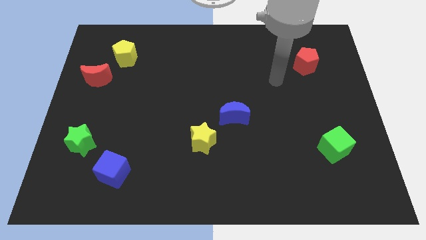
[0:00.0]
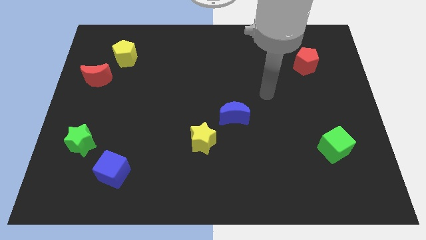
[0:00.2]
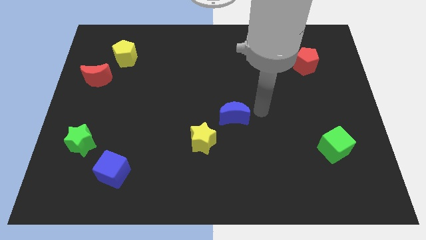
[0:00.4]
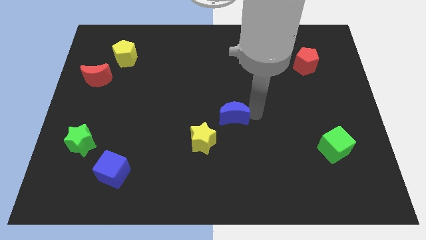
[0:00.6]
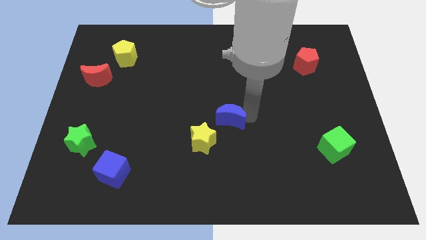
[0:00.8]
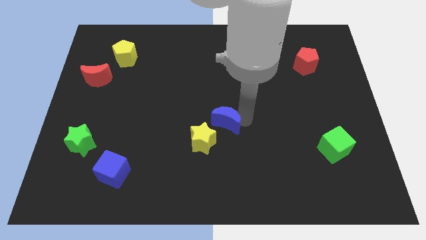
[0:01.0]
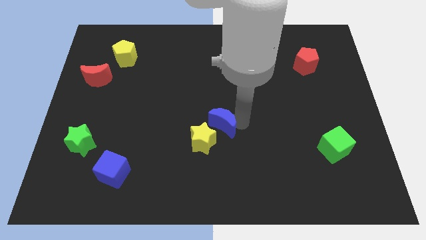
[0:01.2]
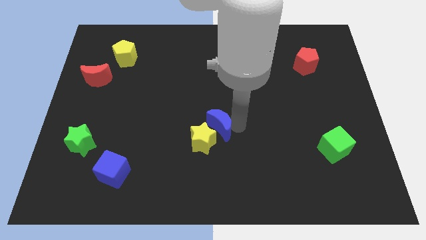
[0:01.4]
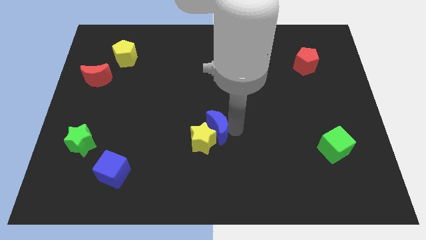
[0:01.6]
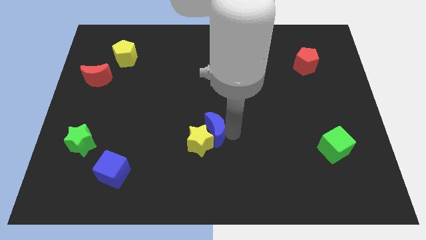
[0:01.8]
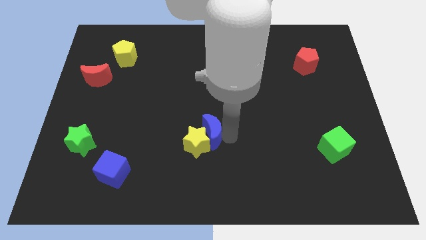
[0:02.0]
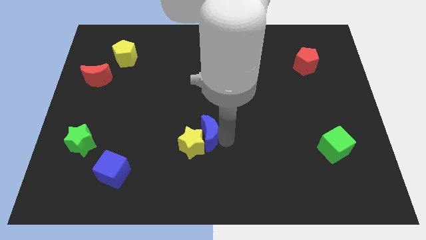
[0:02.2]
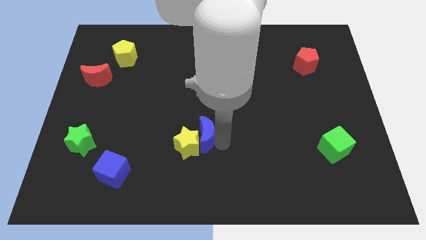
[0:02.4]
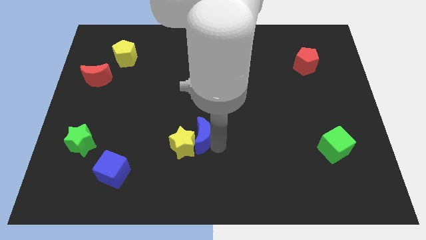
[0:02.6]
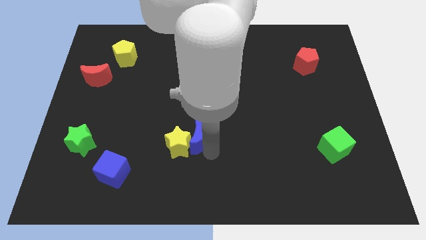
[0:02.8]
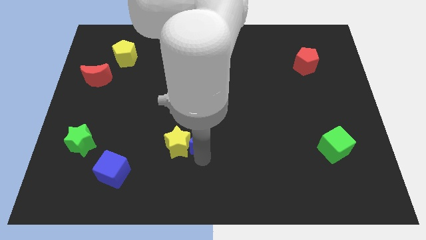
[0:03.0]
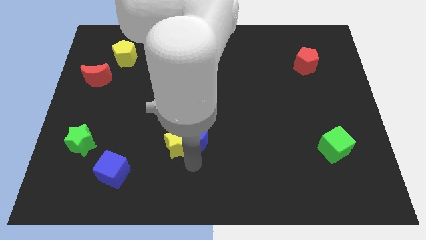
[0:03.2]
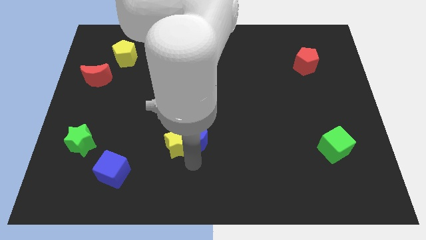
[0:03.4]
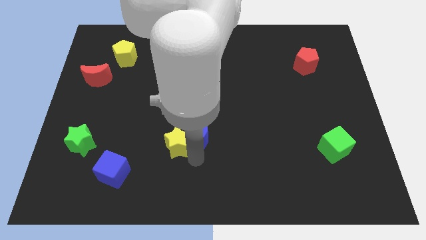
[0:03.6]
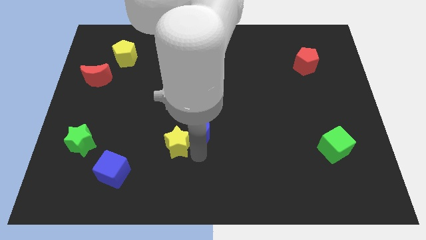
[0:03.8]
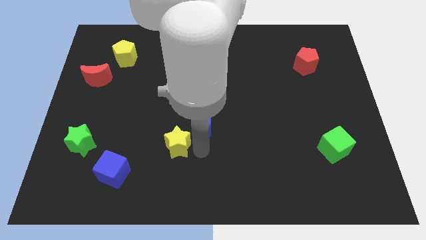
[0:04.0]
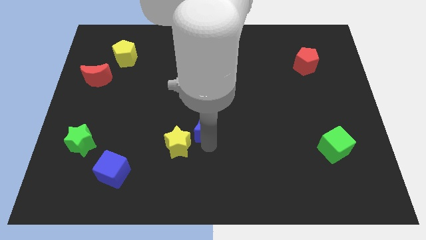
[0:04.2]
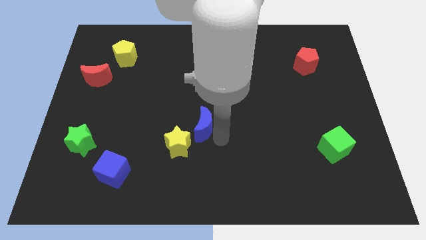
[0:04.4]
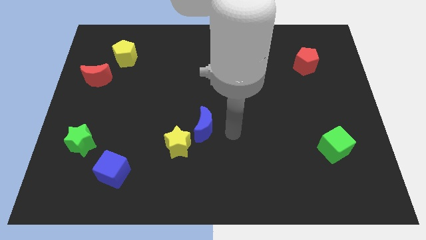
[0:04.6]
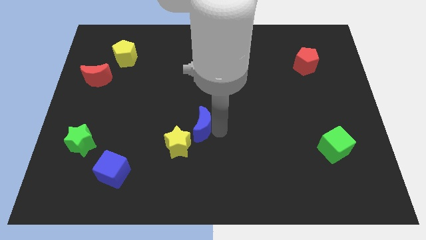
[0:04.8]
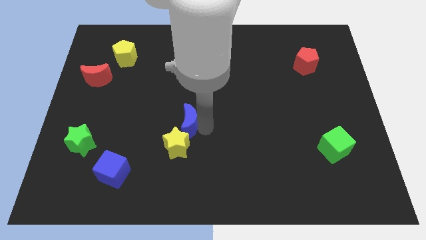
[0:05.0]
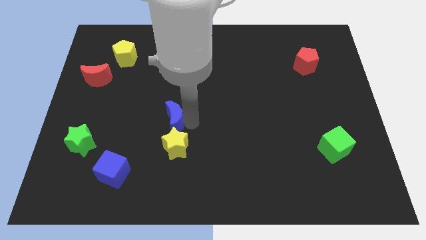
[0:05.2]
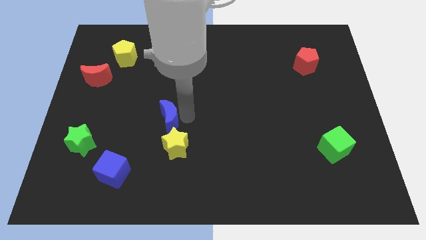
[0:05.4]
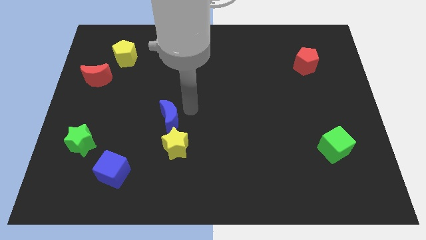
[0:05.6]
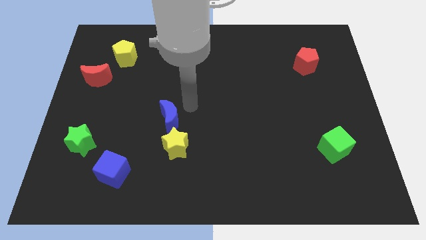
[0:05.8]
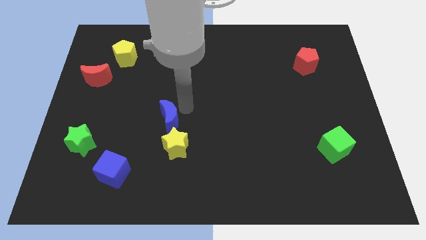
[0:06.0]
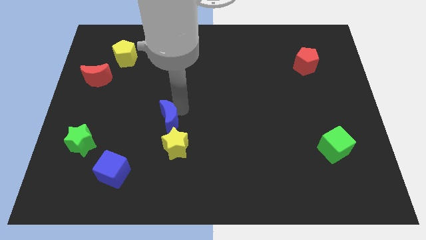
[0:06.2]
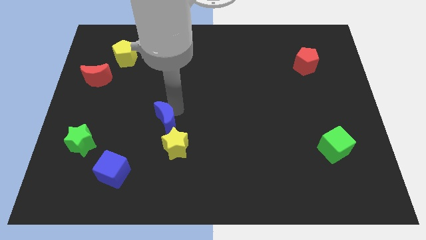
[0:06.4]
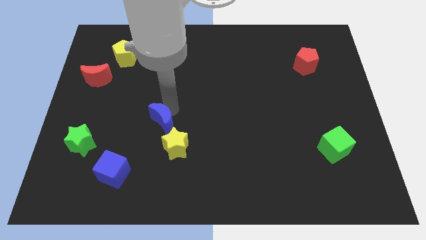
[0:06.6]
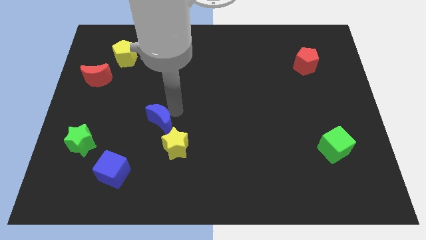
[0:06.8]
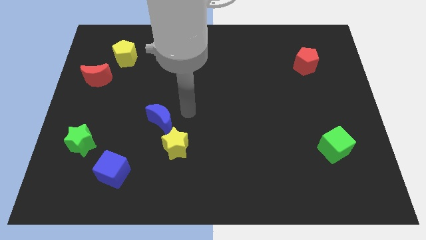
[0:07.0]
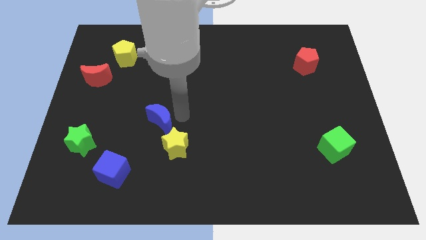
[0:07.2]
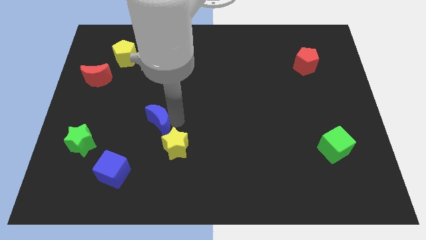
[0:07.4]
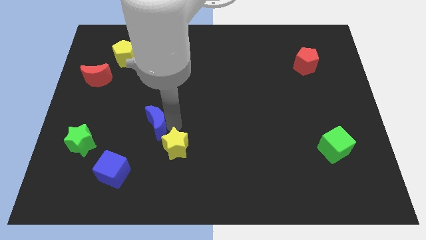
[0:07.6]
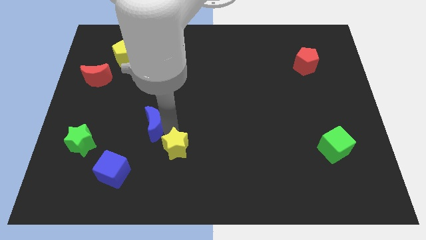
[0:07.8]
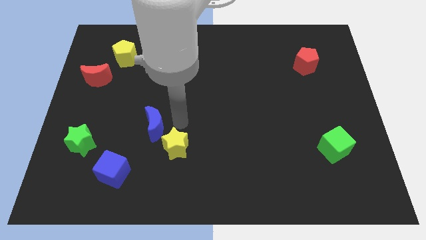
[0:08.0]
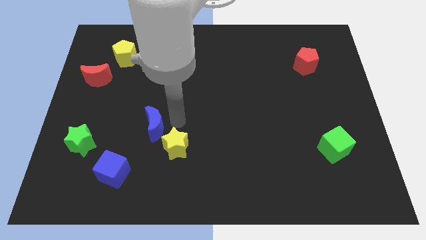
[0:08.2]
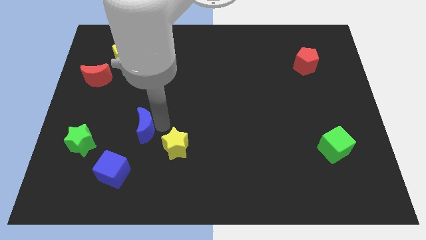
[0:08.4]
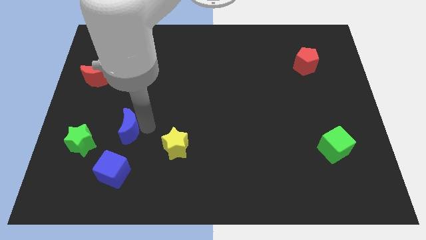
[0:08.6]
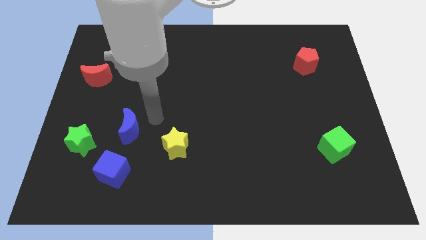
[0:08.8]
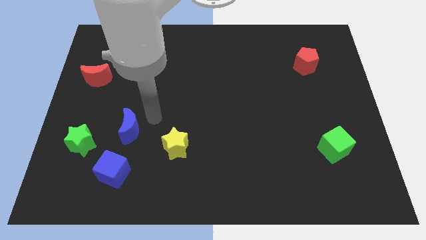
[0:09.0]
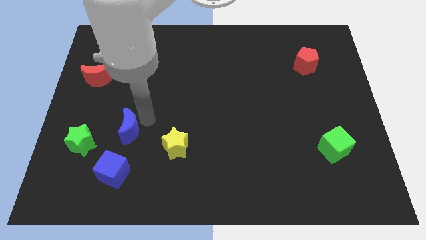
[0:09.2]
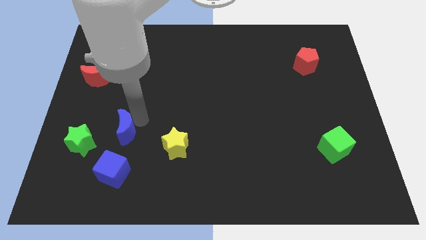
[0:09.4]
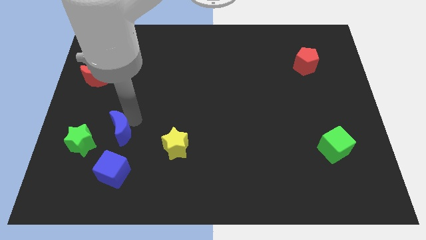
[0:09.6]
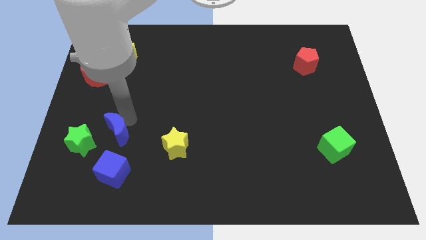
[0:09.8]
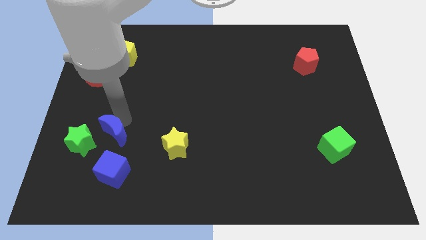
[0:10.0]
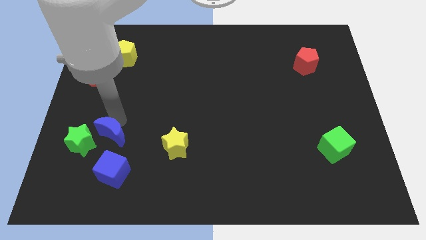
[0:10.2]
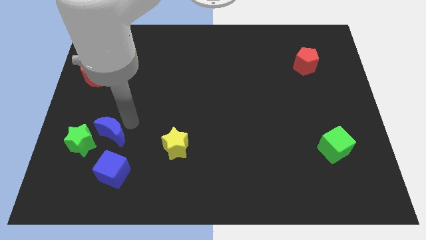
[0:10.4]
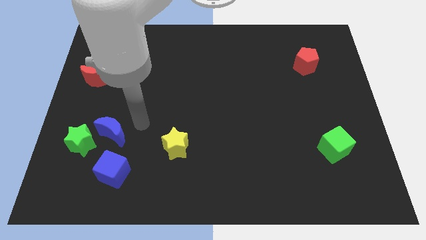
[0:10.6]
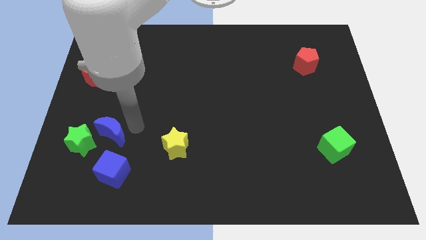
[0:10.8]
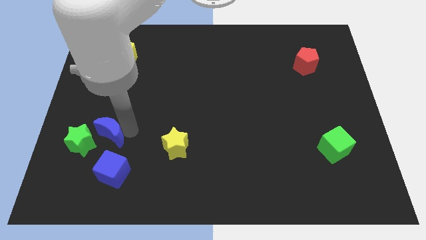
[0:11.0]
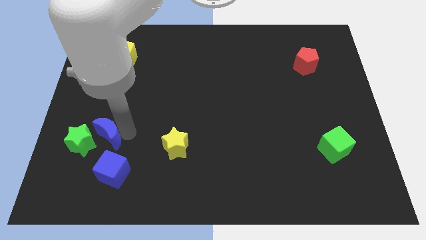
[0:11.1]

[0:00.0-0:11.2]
put the blue moon close to the green star

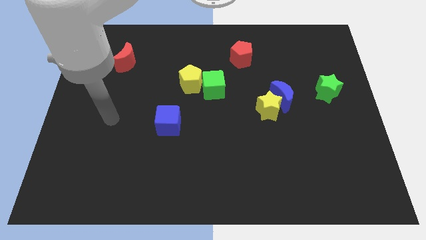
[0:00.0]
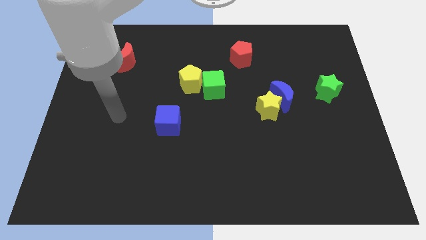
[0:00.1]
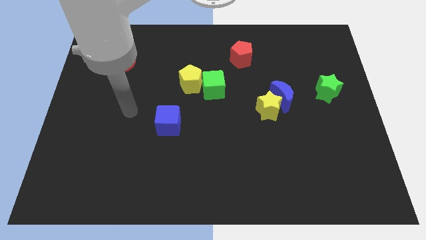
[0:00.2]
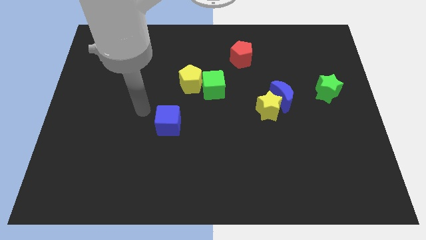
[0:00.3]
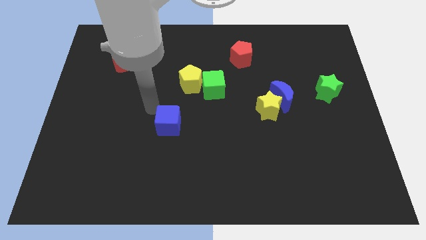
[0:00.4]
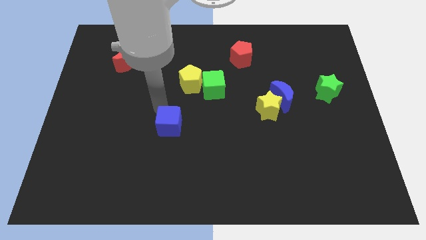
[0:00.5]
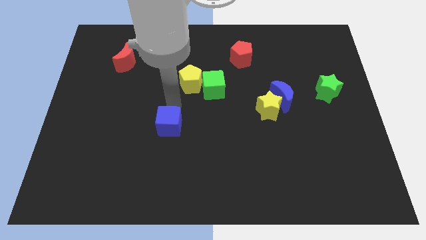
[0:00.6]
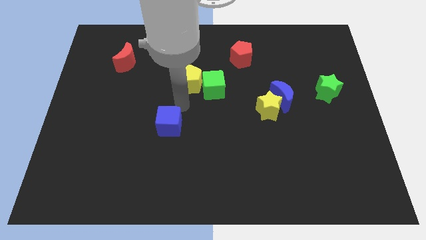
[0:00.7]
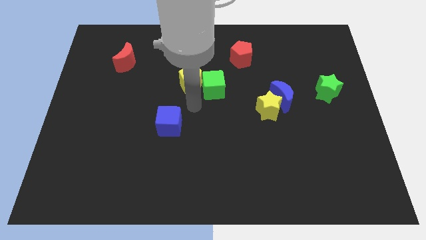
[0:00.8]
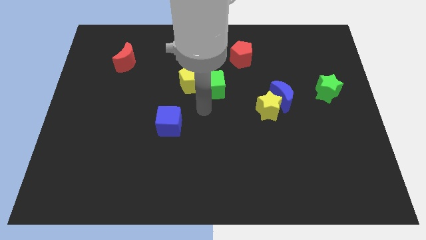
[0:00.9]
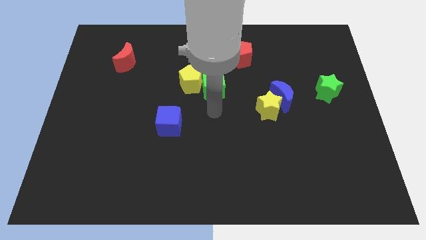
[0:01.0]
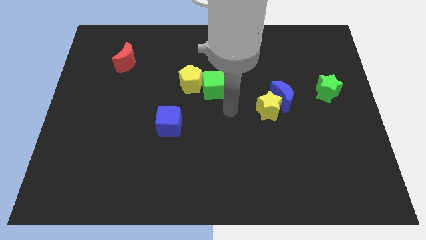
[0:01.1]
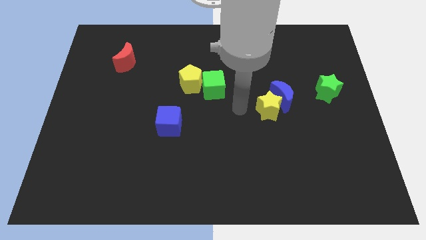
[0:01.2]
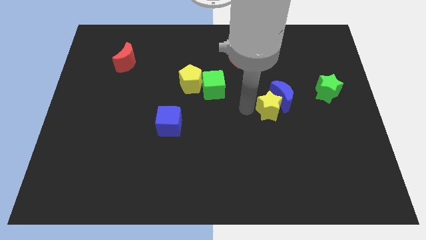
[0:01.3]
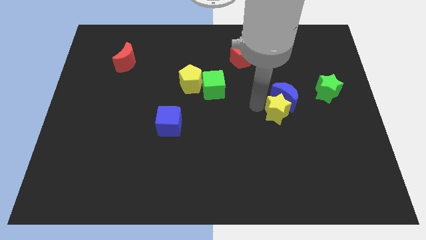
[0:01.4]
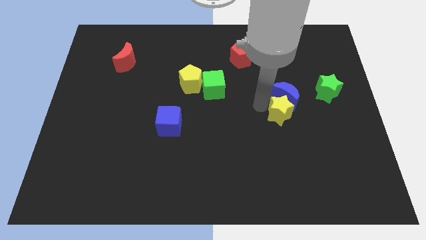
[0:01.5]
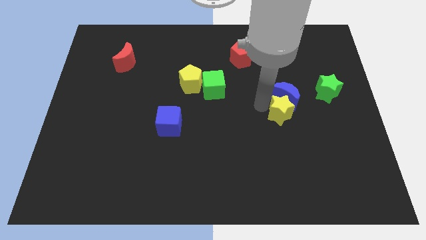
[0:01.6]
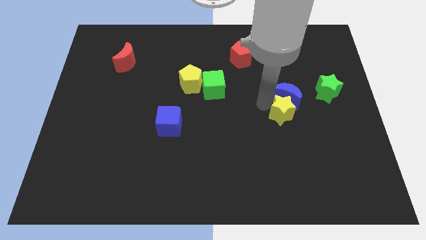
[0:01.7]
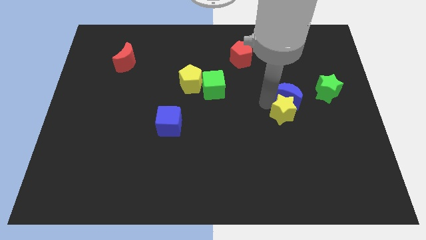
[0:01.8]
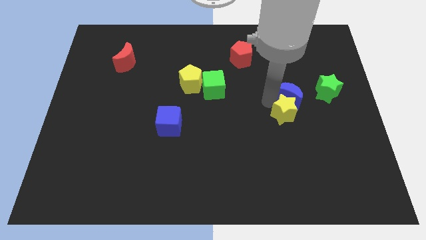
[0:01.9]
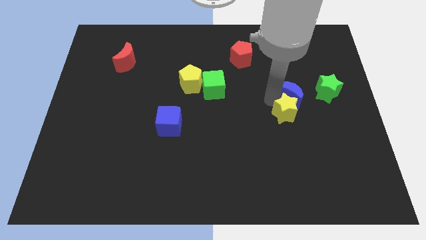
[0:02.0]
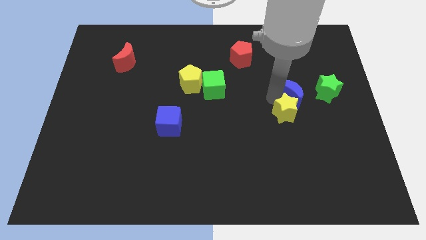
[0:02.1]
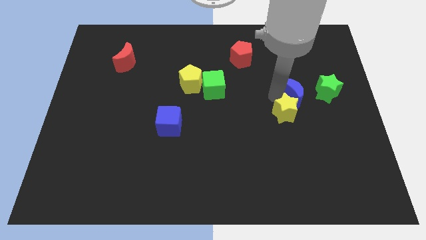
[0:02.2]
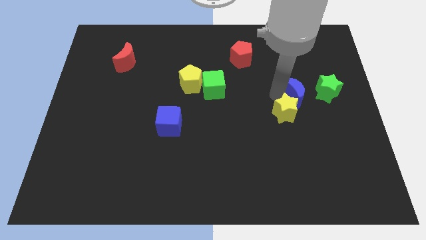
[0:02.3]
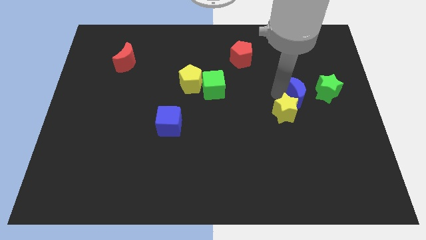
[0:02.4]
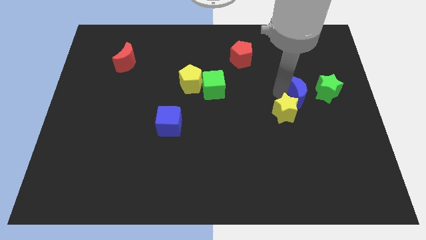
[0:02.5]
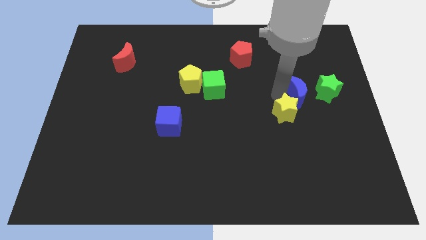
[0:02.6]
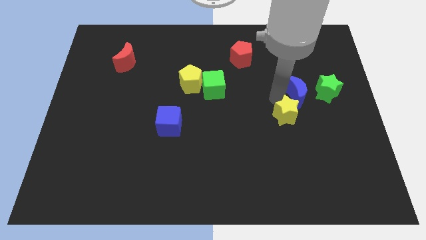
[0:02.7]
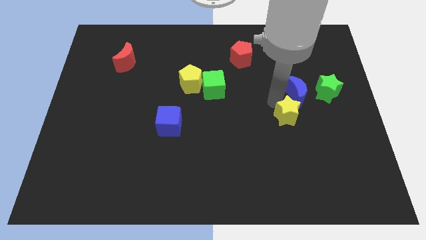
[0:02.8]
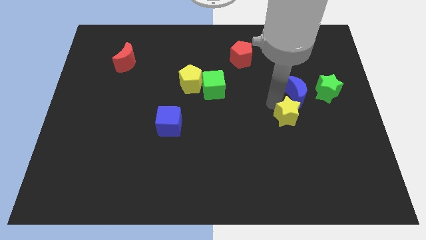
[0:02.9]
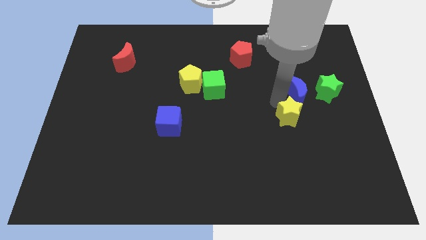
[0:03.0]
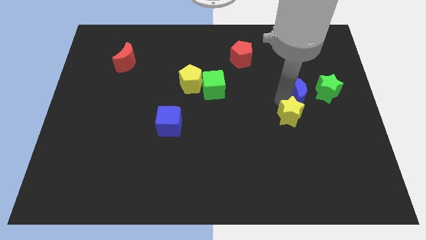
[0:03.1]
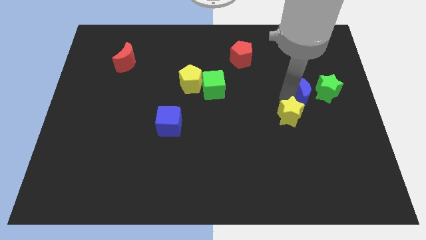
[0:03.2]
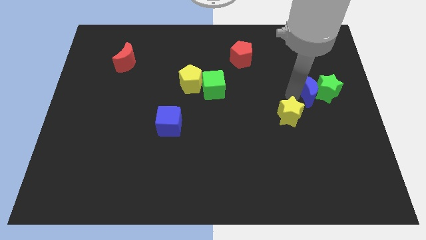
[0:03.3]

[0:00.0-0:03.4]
put the blue moon towards the green star
